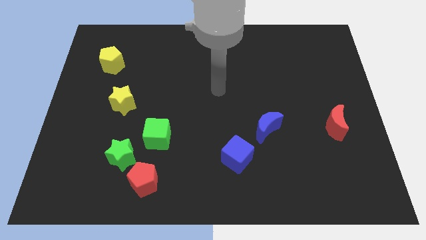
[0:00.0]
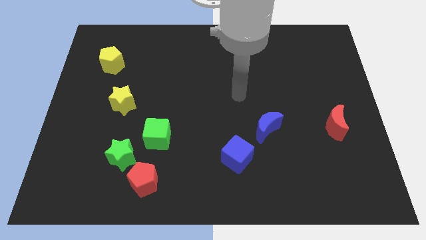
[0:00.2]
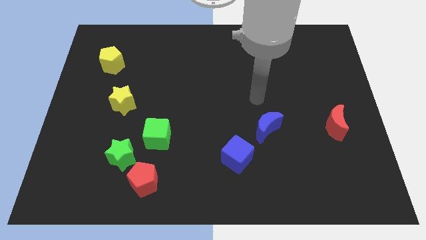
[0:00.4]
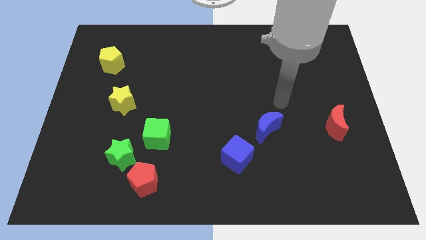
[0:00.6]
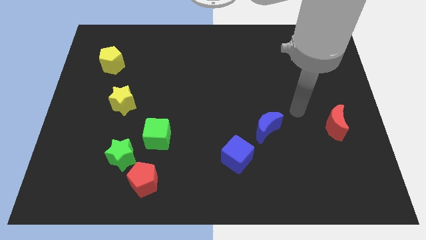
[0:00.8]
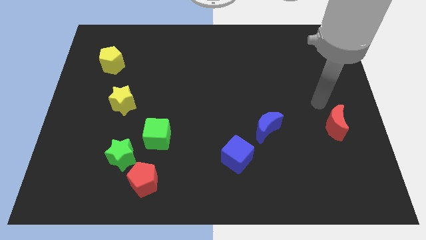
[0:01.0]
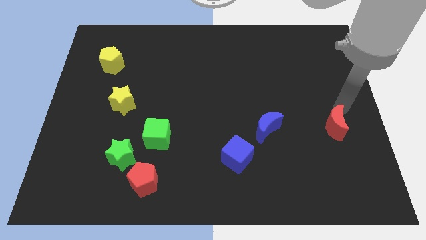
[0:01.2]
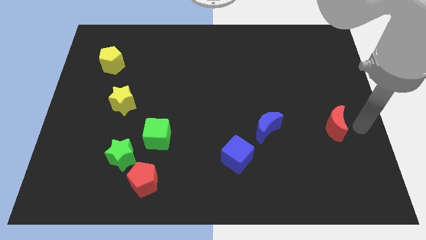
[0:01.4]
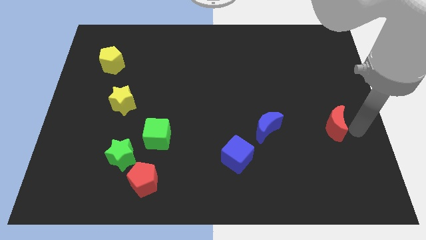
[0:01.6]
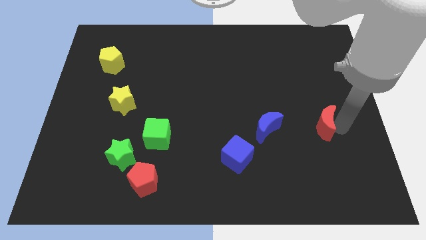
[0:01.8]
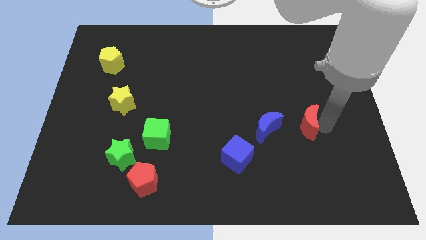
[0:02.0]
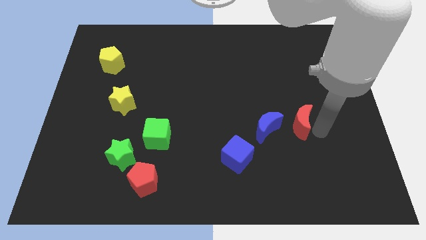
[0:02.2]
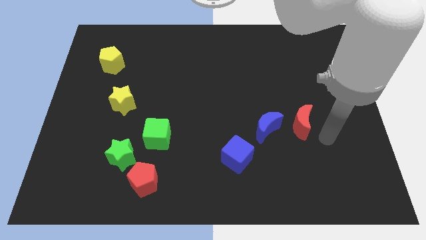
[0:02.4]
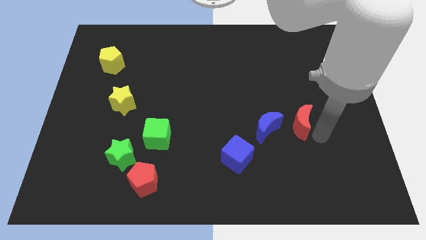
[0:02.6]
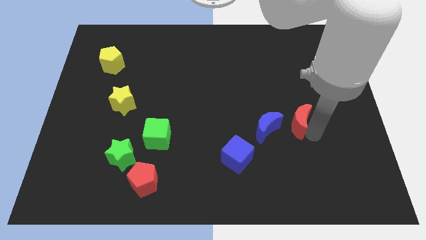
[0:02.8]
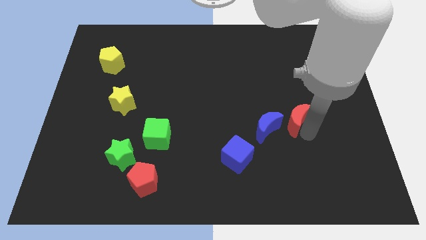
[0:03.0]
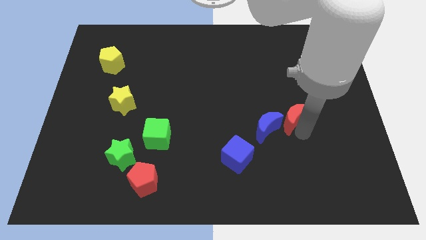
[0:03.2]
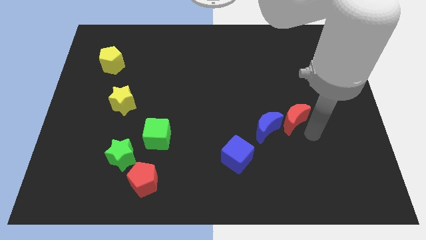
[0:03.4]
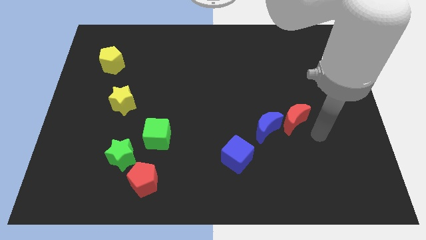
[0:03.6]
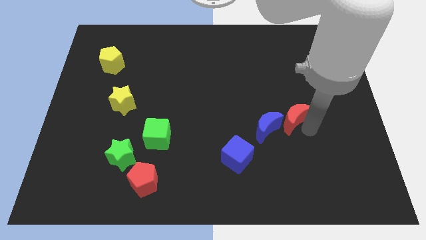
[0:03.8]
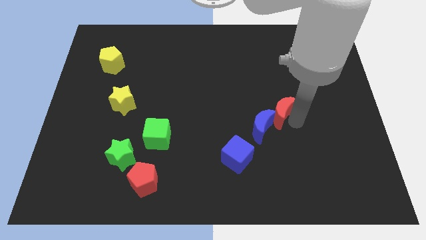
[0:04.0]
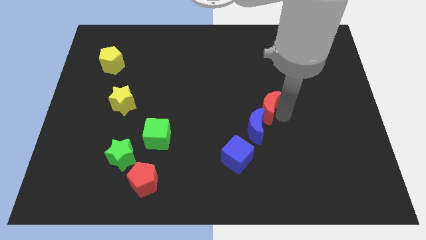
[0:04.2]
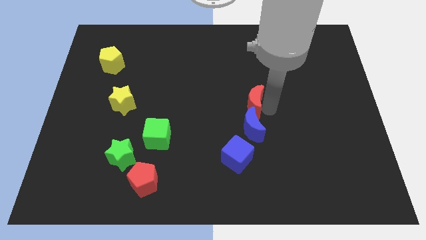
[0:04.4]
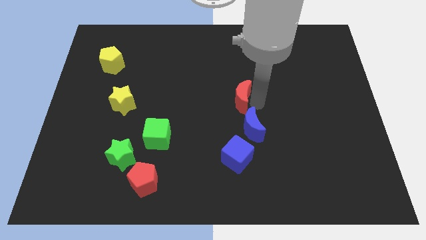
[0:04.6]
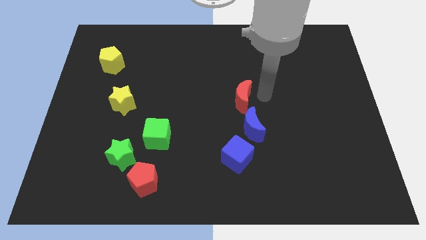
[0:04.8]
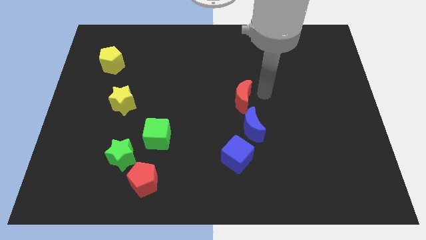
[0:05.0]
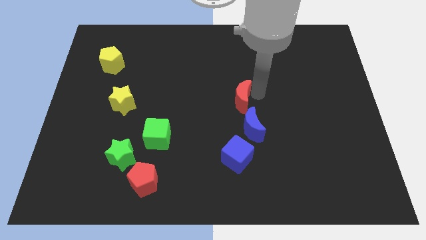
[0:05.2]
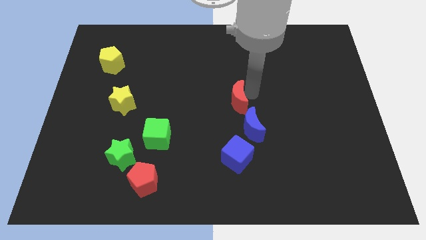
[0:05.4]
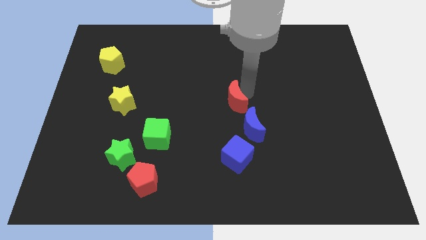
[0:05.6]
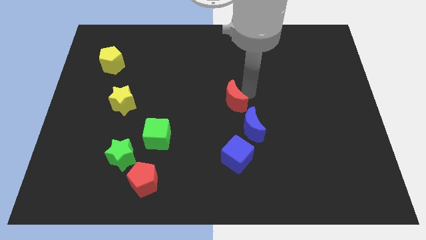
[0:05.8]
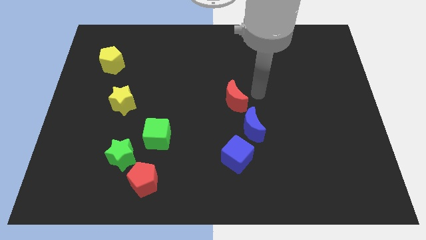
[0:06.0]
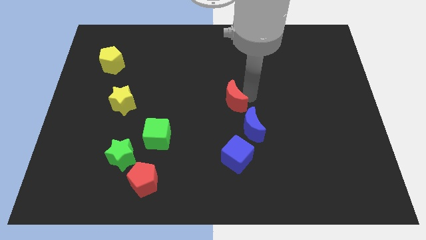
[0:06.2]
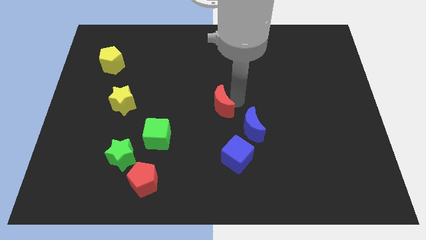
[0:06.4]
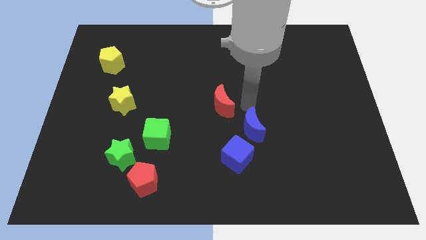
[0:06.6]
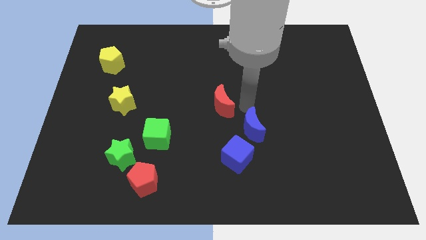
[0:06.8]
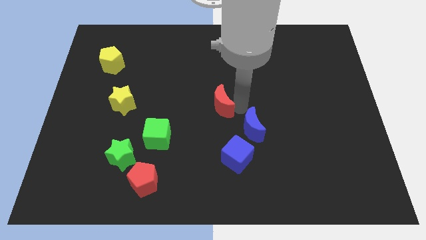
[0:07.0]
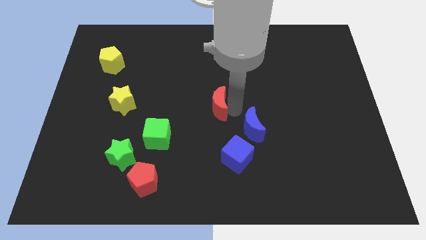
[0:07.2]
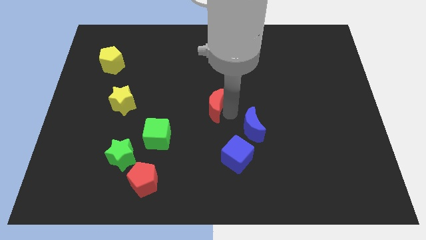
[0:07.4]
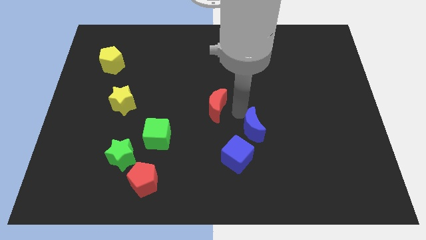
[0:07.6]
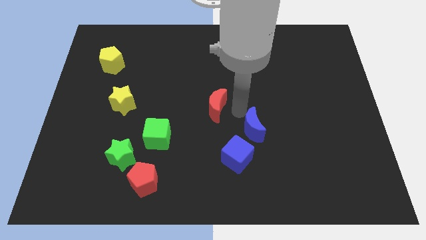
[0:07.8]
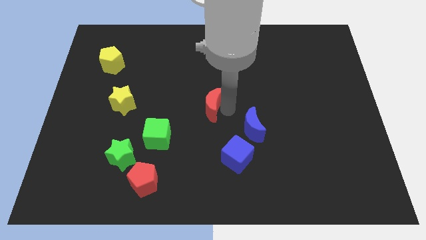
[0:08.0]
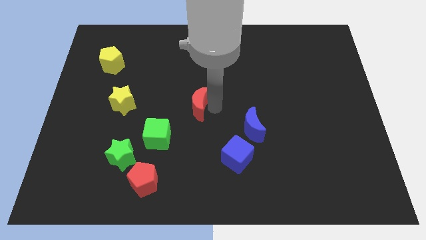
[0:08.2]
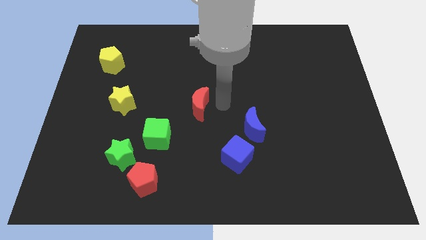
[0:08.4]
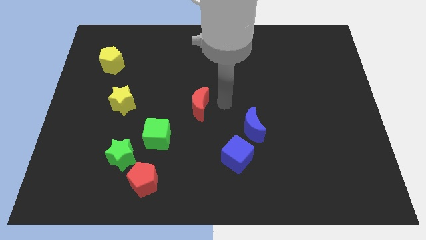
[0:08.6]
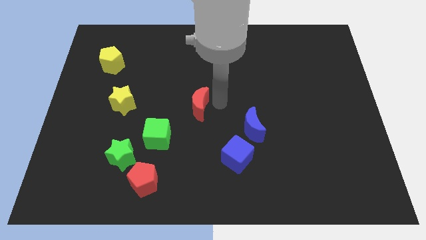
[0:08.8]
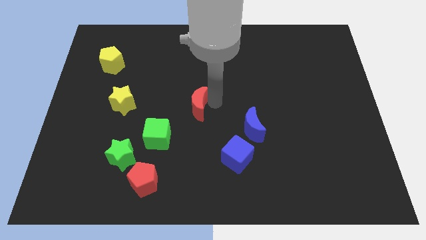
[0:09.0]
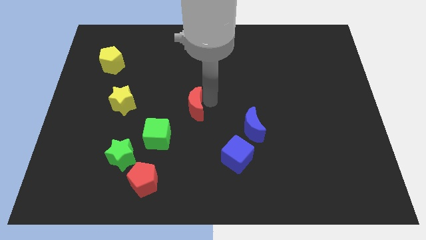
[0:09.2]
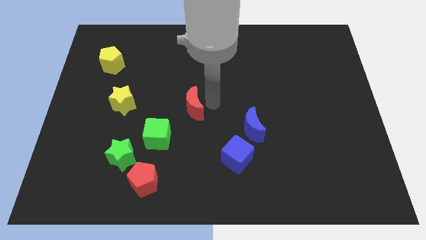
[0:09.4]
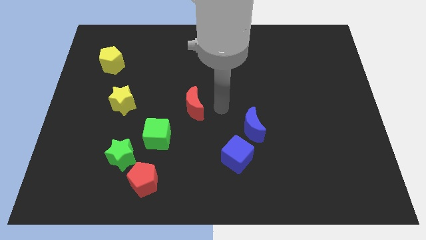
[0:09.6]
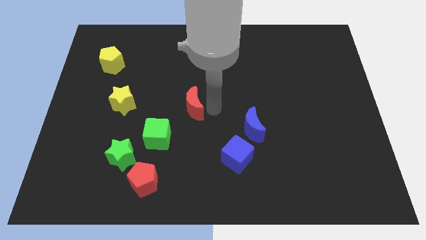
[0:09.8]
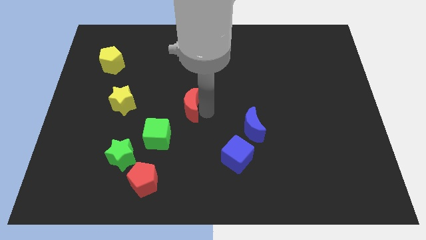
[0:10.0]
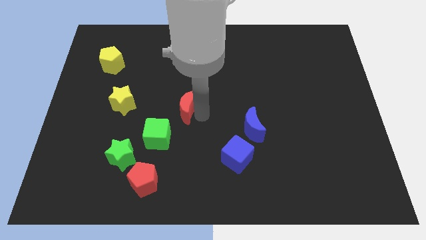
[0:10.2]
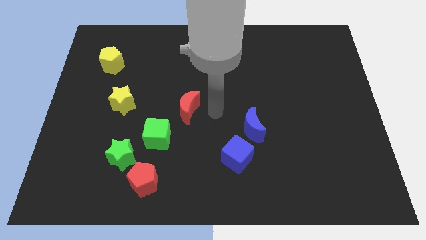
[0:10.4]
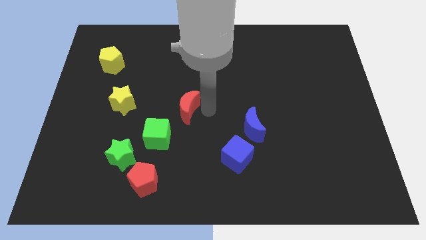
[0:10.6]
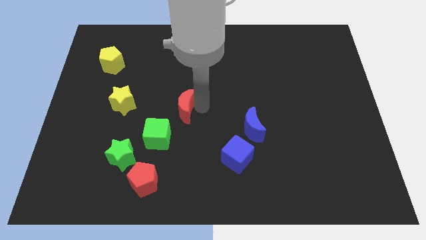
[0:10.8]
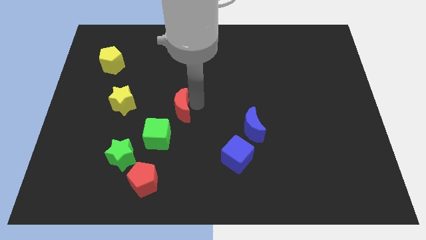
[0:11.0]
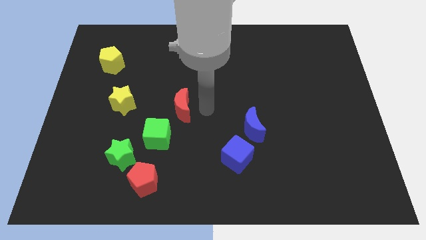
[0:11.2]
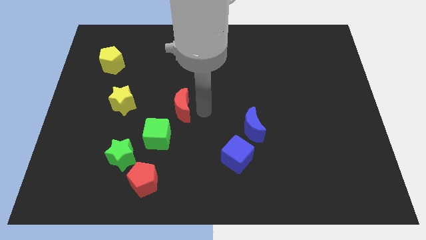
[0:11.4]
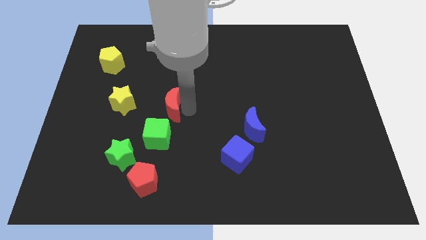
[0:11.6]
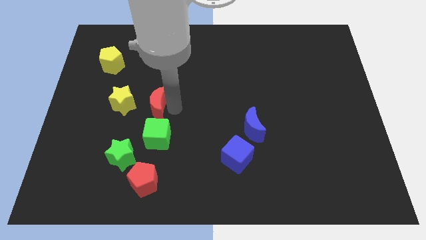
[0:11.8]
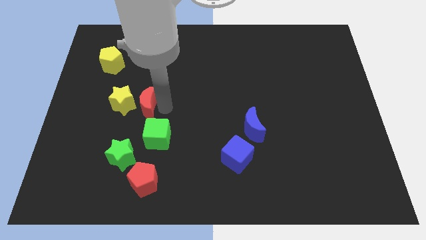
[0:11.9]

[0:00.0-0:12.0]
slide the red moon towards the yellow star
